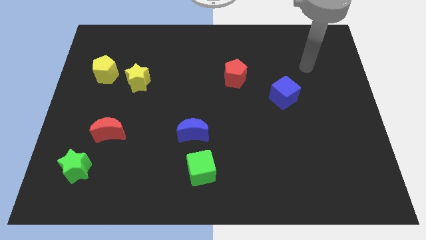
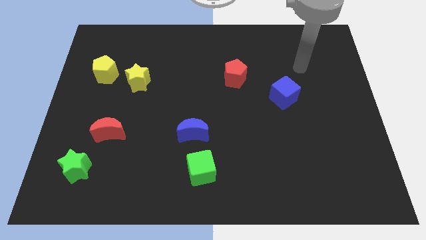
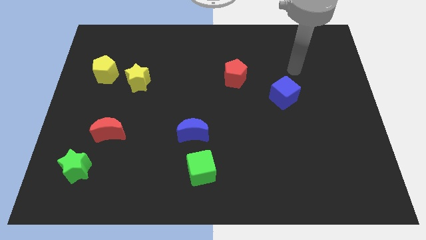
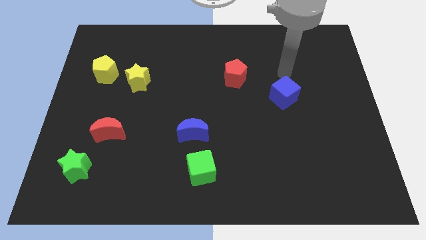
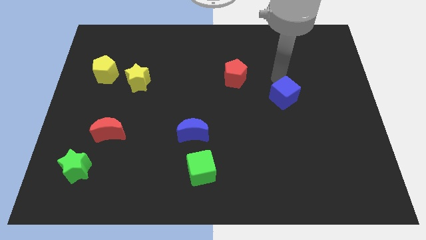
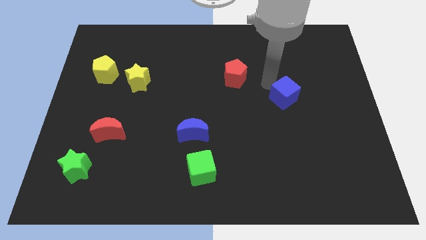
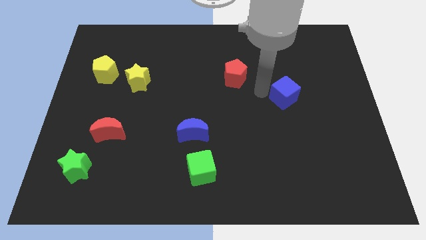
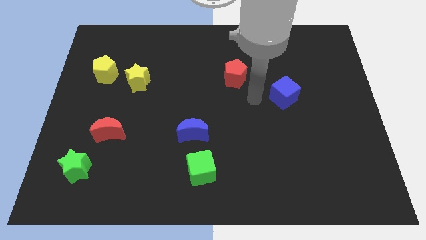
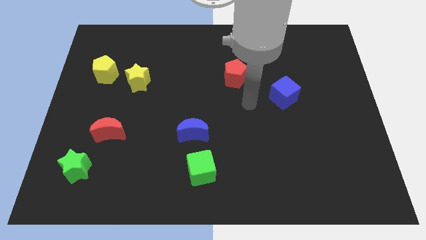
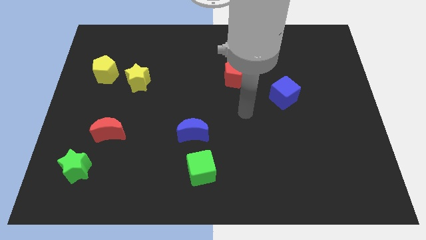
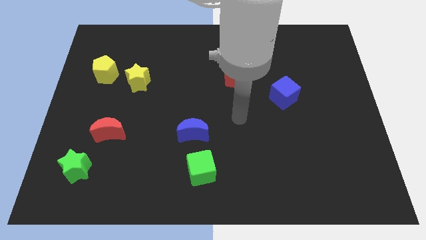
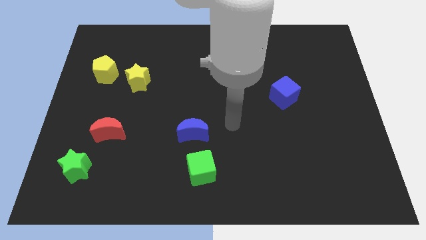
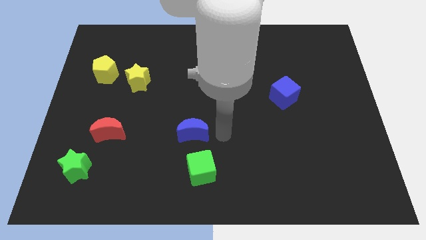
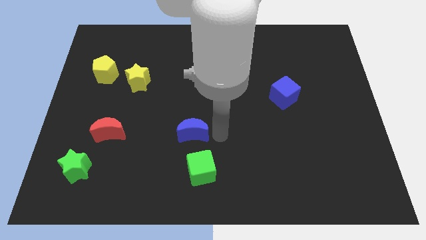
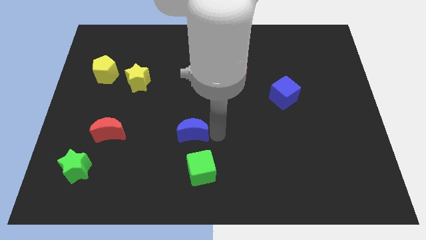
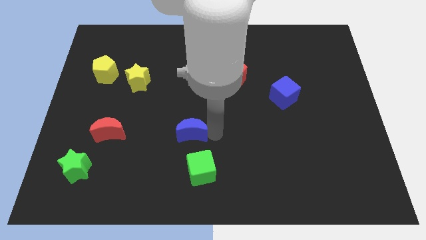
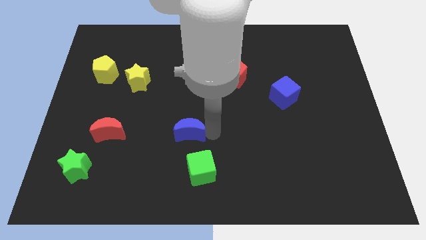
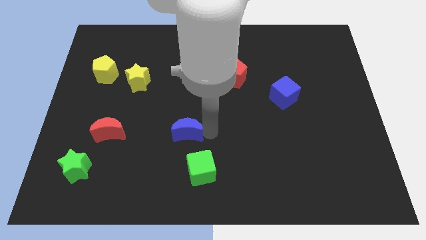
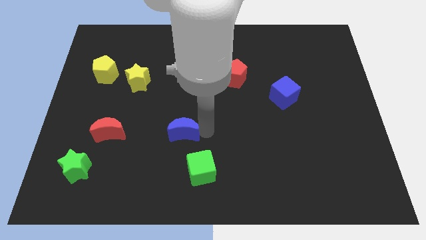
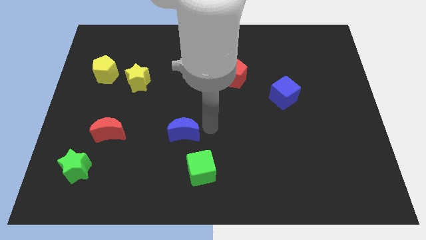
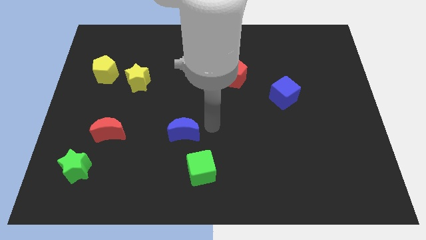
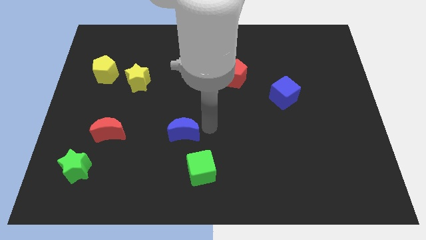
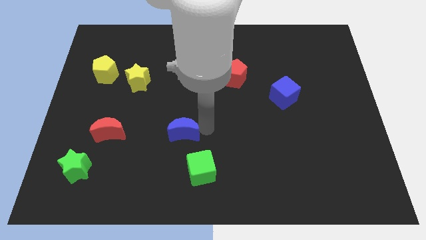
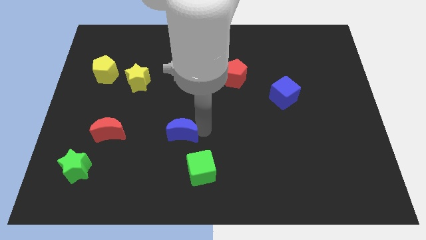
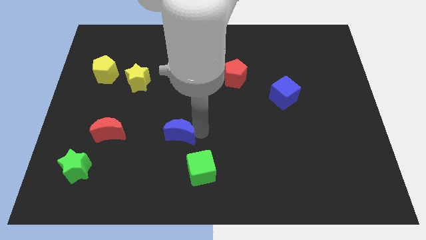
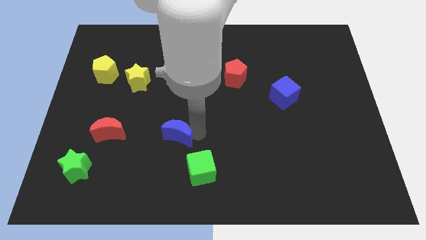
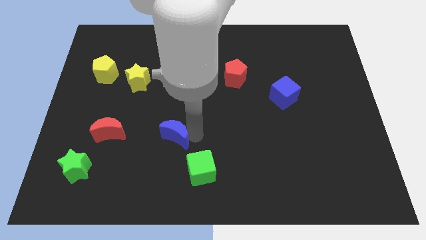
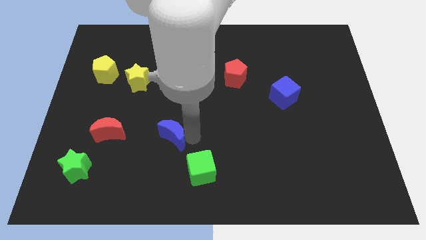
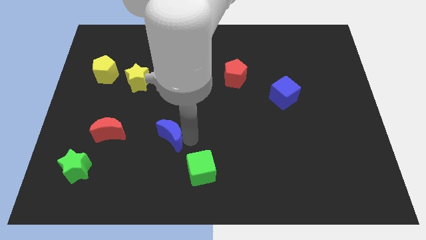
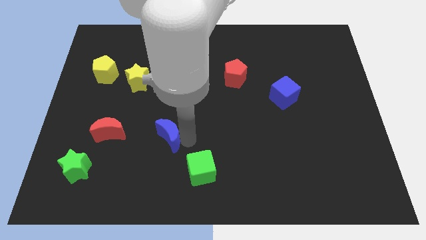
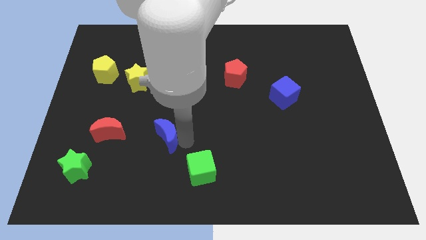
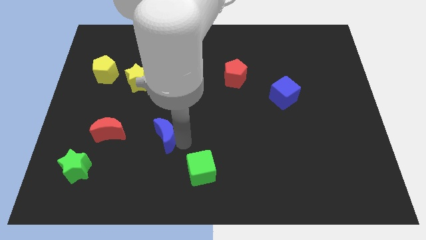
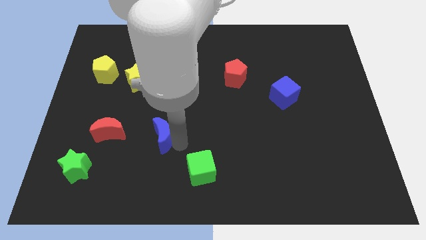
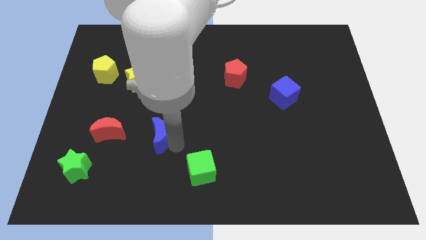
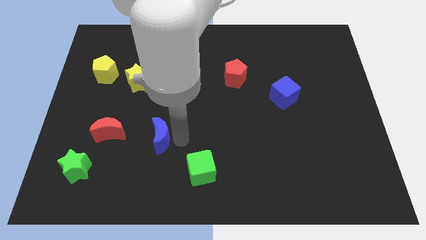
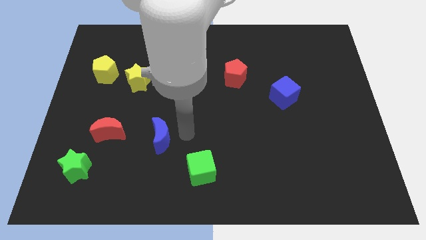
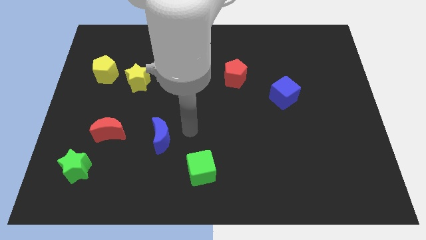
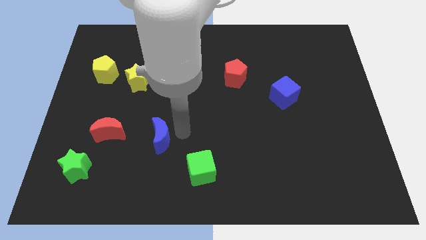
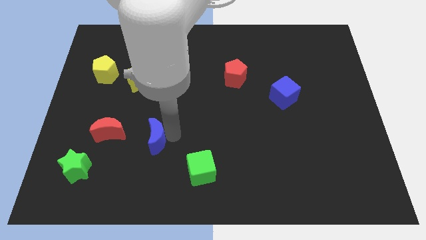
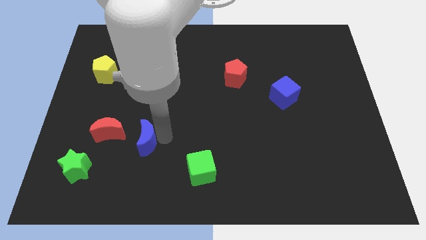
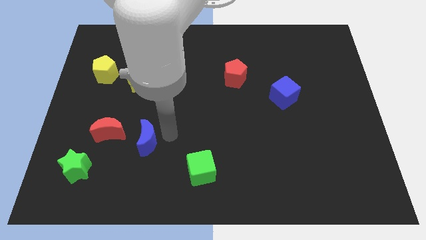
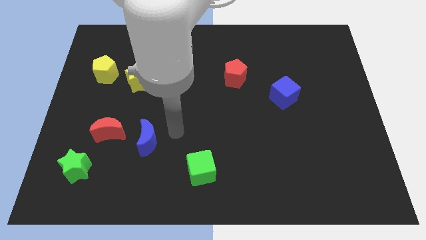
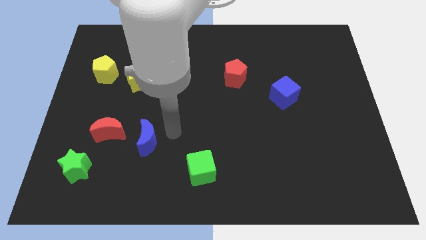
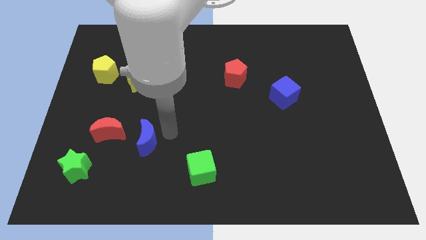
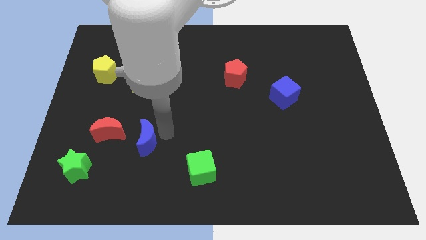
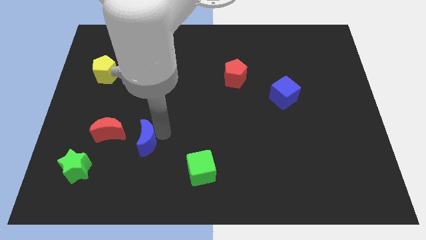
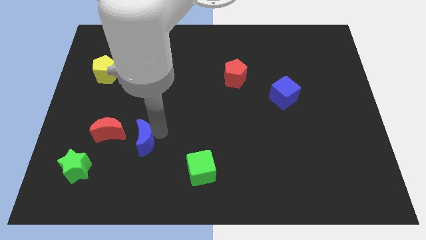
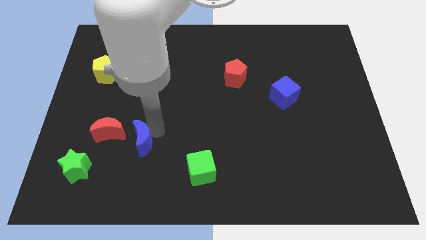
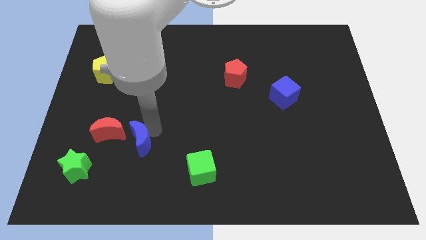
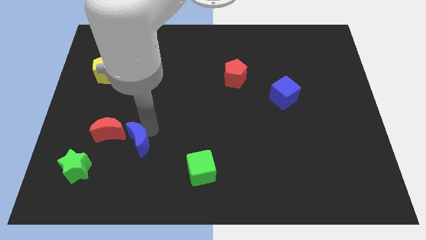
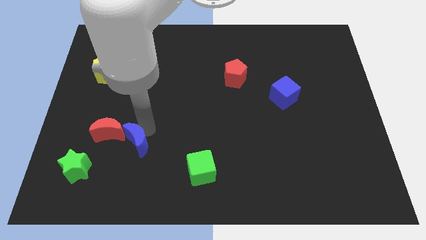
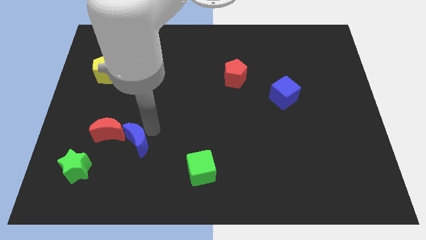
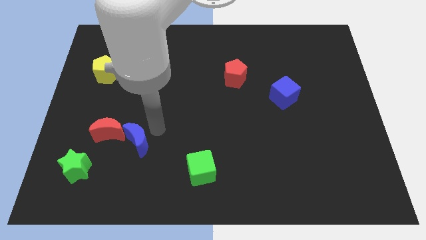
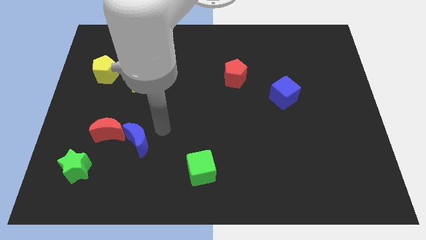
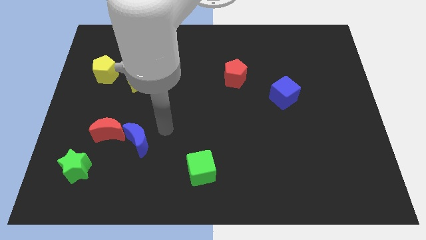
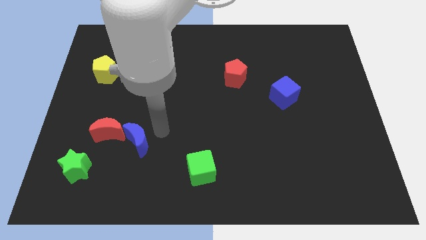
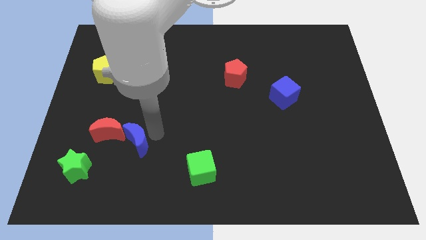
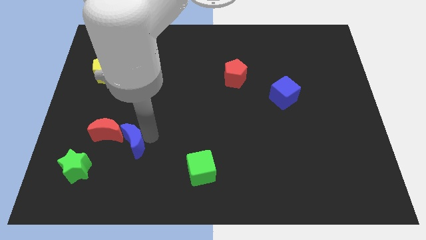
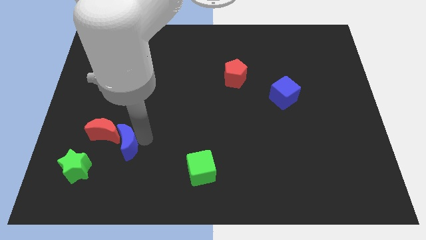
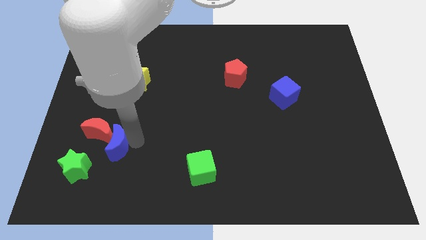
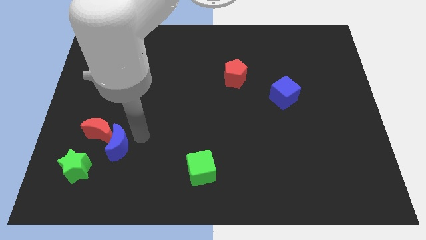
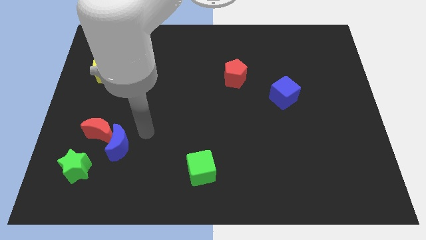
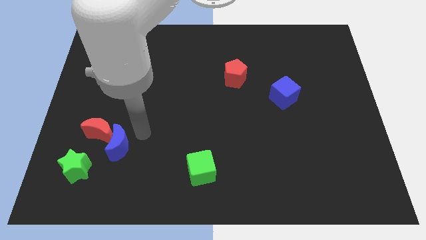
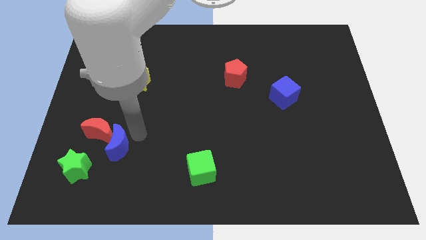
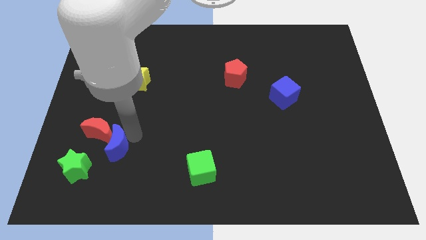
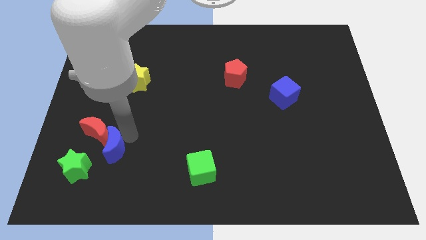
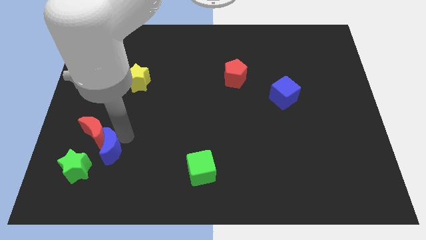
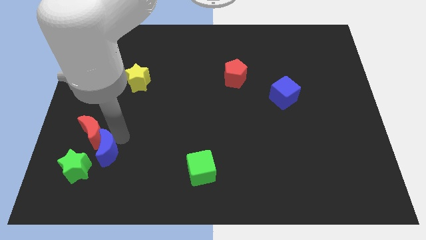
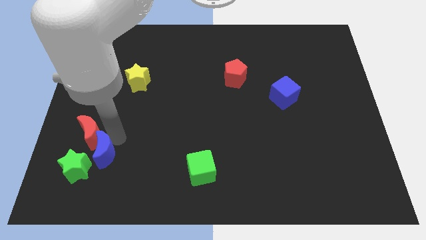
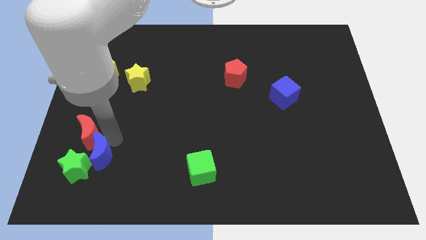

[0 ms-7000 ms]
put the blue moon next to the green star

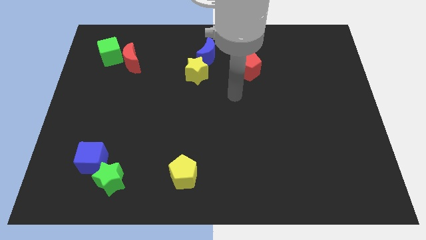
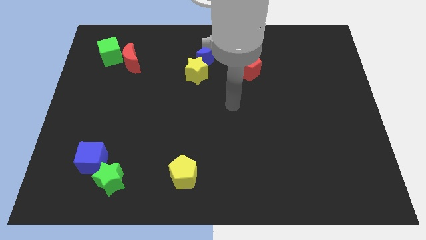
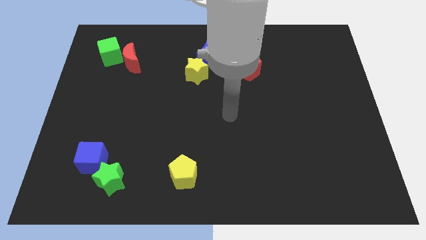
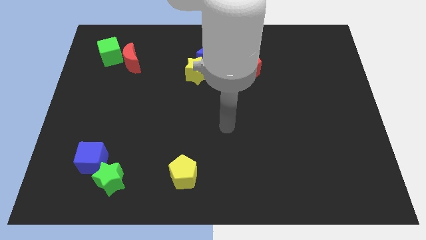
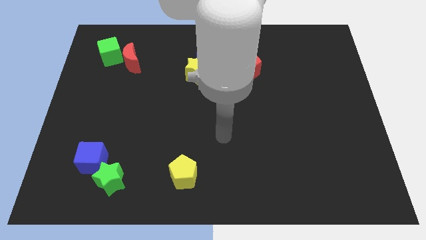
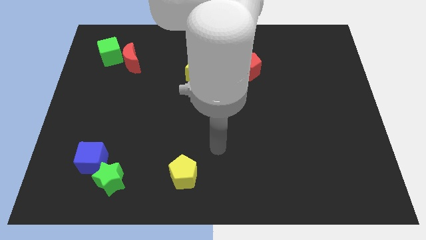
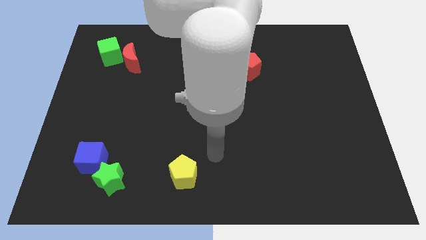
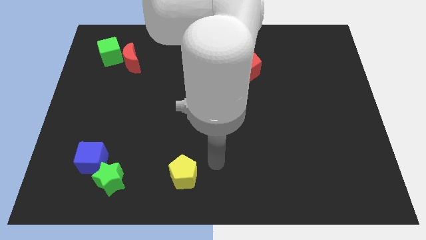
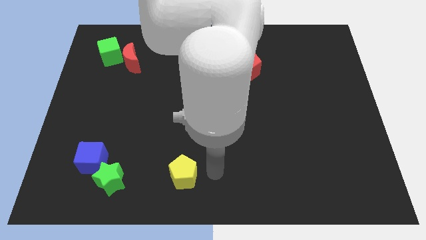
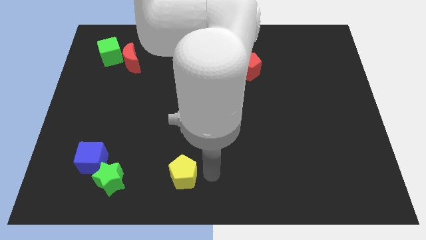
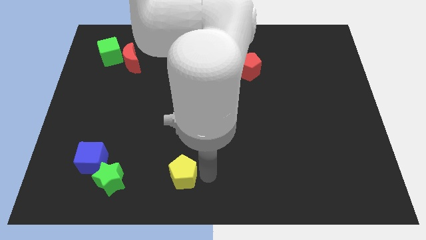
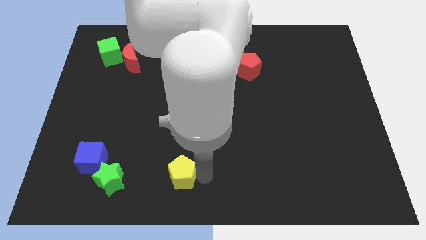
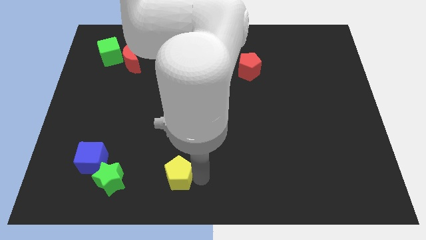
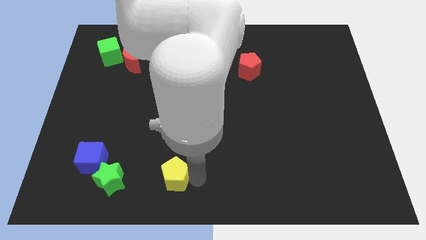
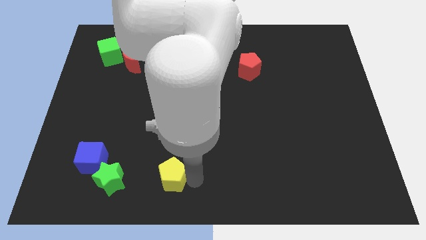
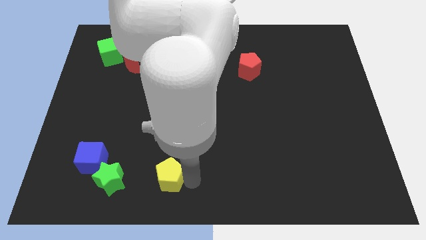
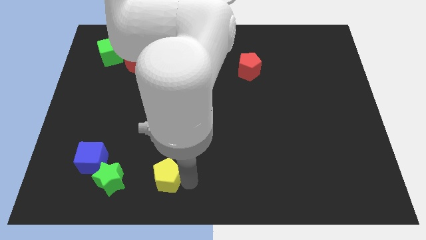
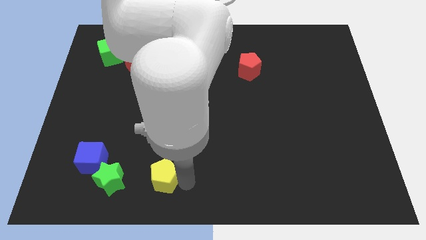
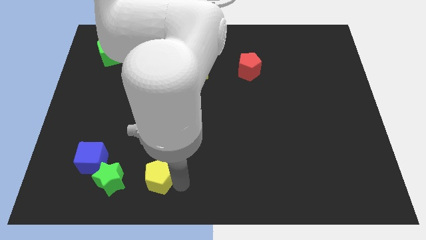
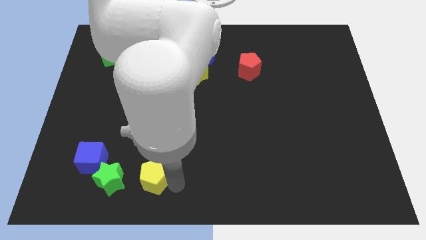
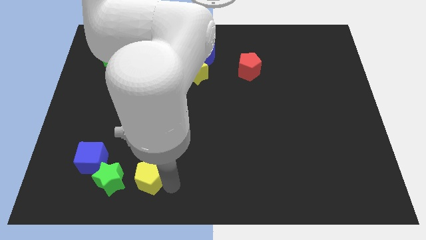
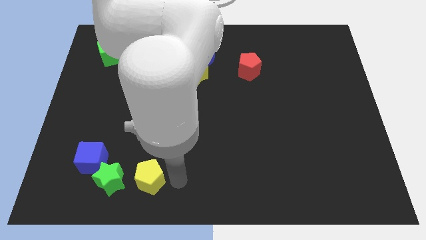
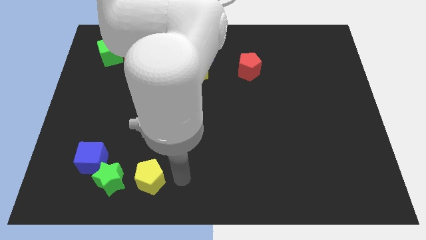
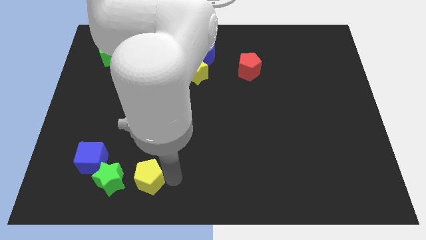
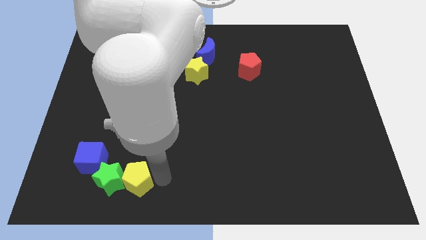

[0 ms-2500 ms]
put the yellow pentagon close to the green star
